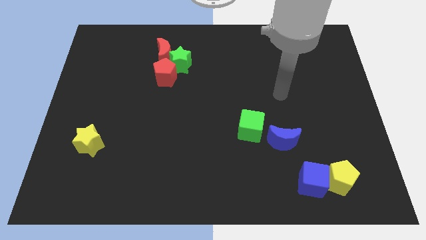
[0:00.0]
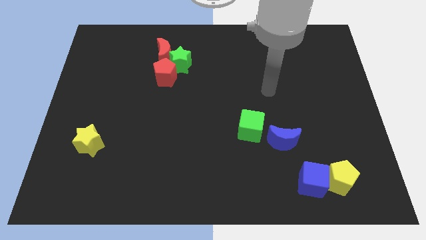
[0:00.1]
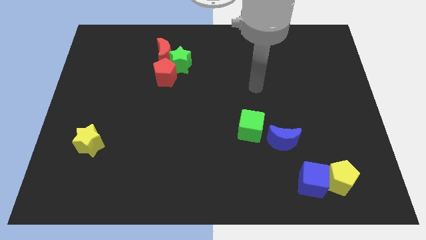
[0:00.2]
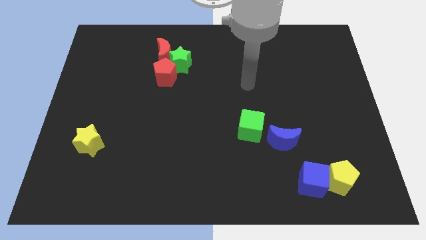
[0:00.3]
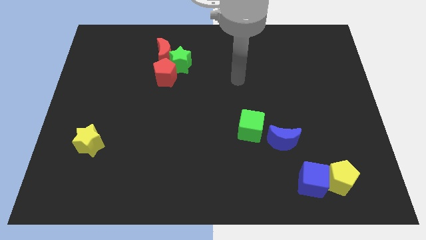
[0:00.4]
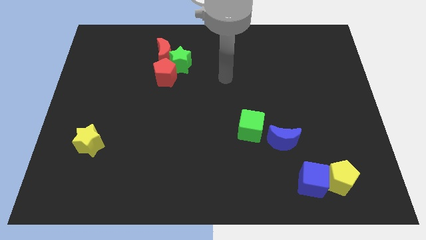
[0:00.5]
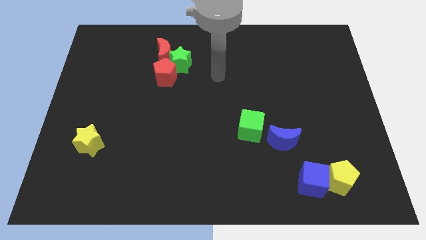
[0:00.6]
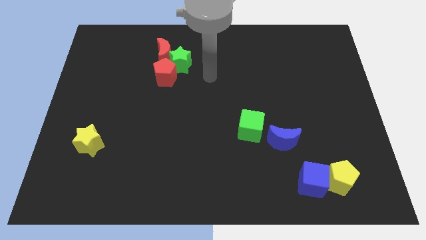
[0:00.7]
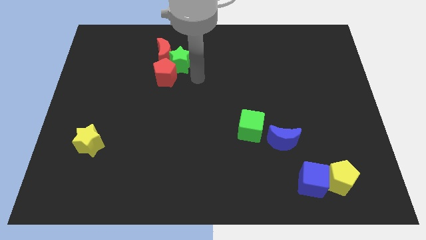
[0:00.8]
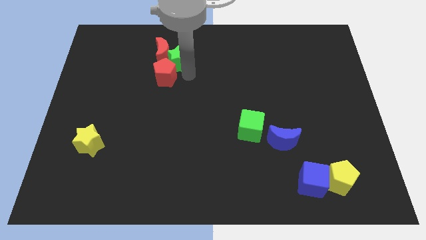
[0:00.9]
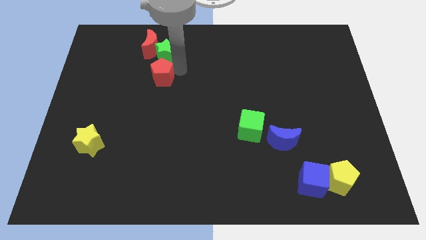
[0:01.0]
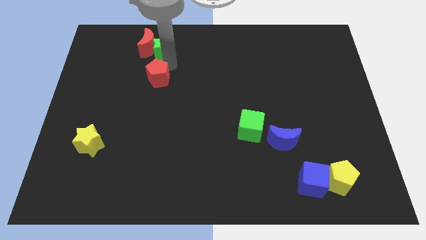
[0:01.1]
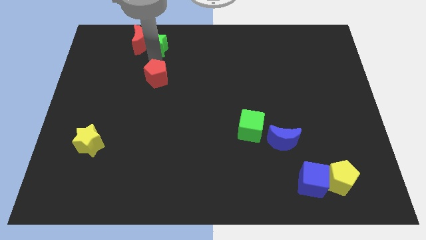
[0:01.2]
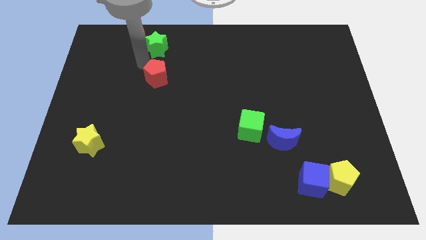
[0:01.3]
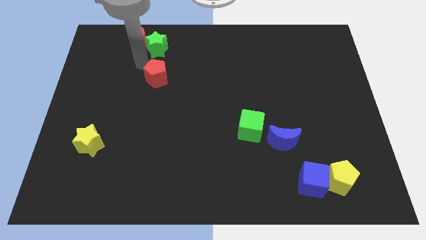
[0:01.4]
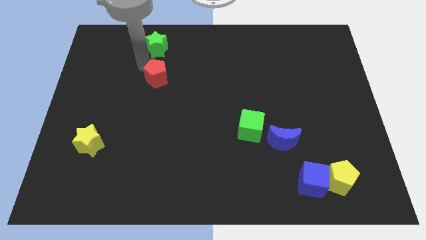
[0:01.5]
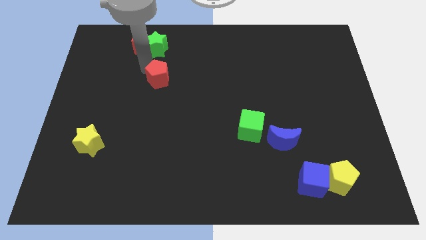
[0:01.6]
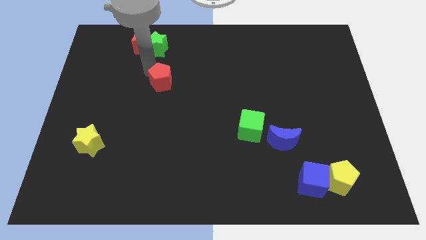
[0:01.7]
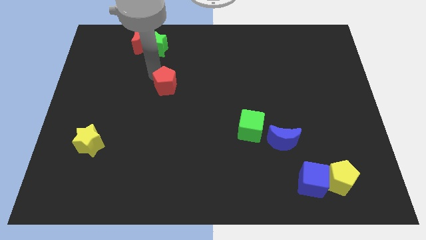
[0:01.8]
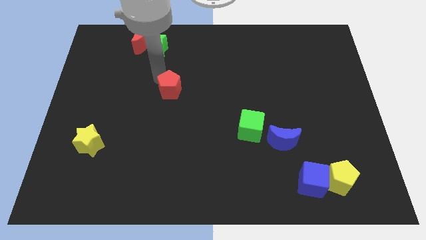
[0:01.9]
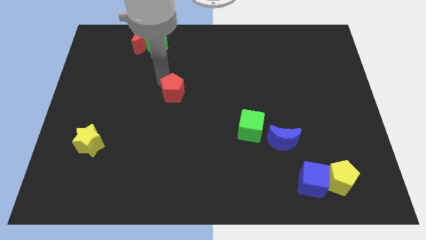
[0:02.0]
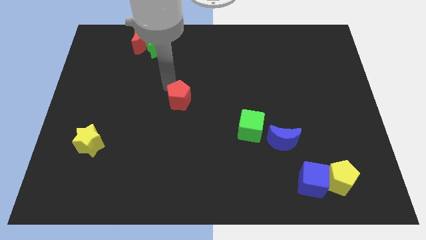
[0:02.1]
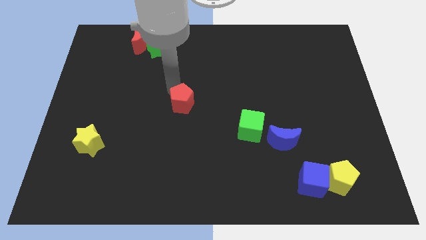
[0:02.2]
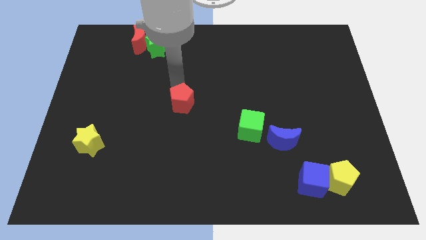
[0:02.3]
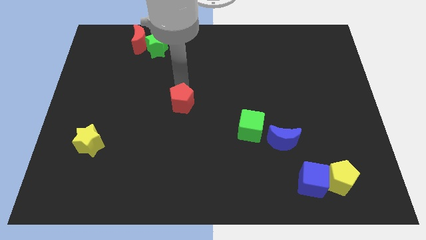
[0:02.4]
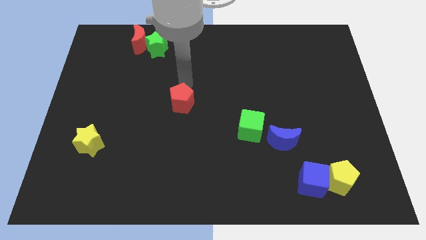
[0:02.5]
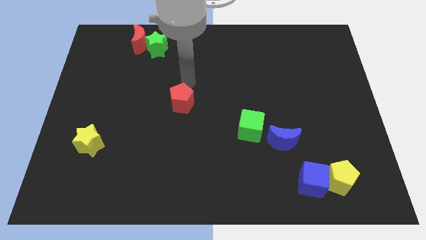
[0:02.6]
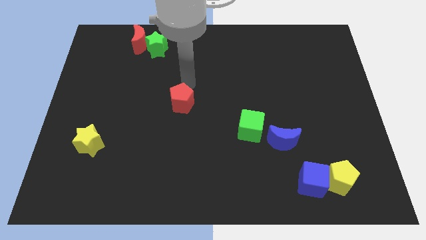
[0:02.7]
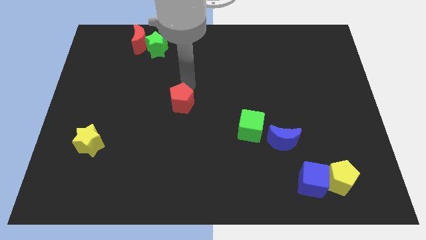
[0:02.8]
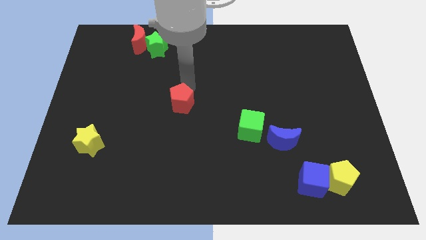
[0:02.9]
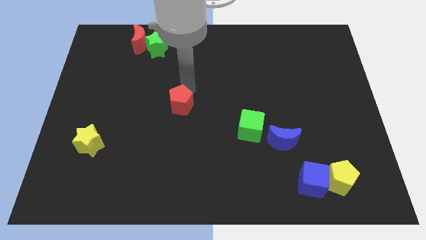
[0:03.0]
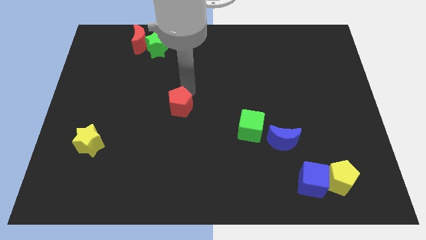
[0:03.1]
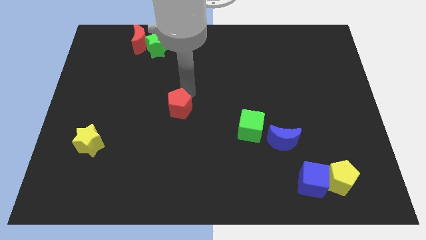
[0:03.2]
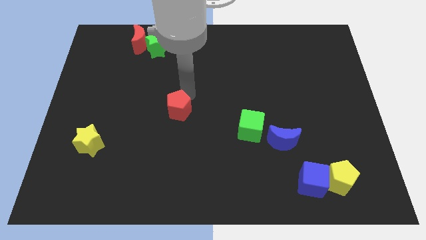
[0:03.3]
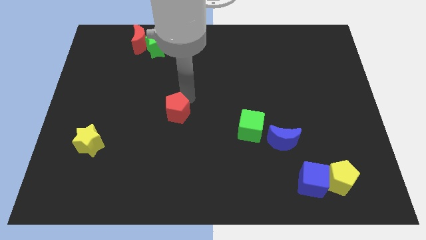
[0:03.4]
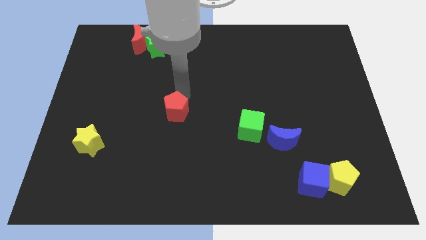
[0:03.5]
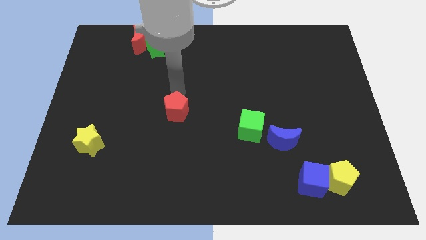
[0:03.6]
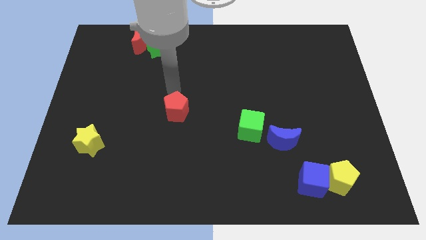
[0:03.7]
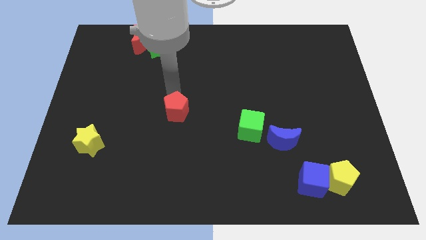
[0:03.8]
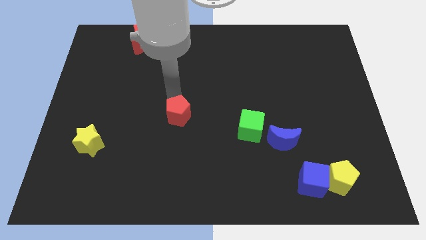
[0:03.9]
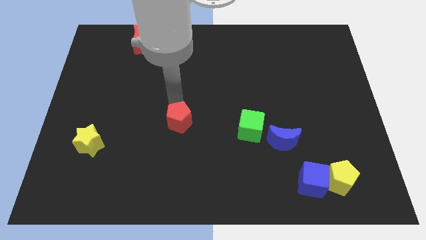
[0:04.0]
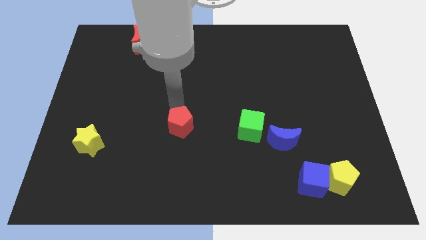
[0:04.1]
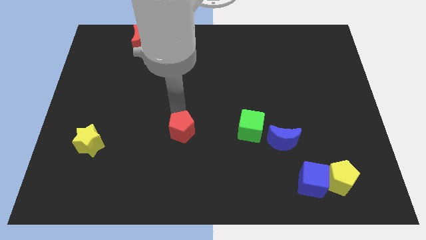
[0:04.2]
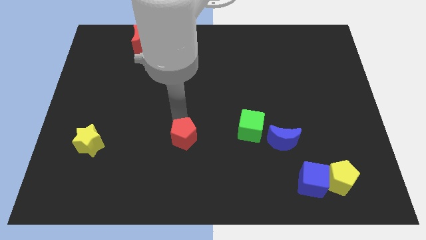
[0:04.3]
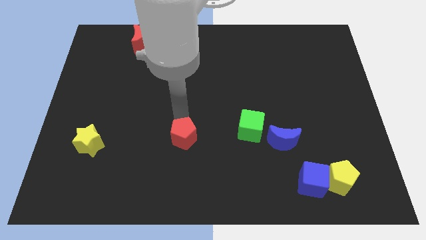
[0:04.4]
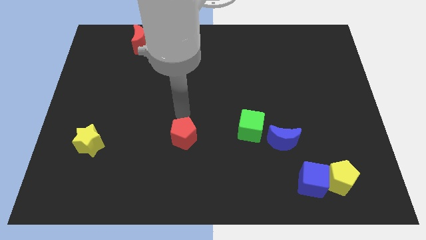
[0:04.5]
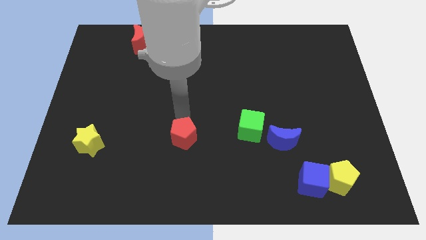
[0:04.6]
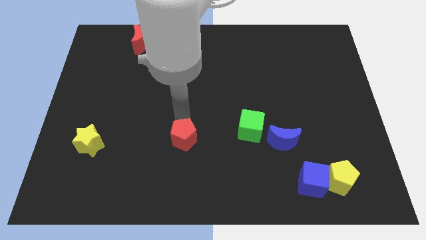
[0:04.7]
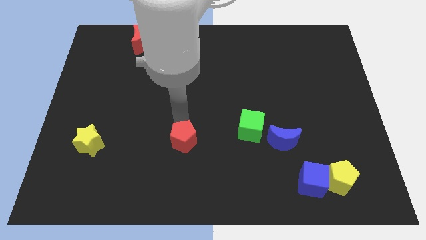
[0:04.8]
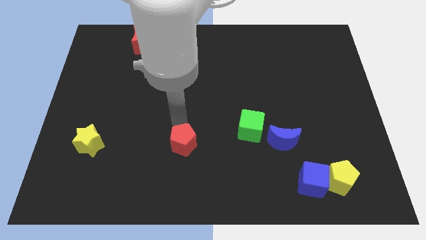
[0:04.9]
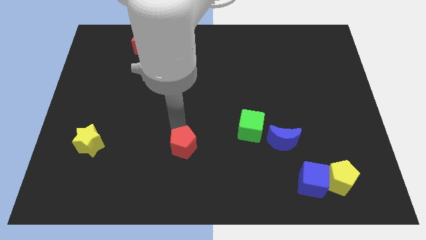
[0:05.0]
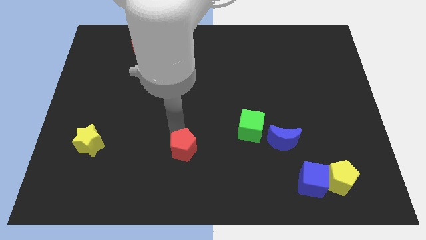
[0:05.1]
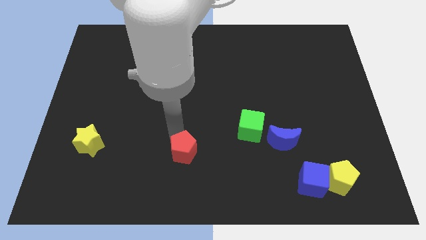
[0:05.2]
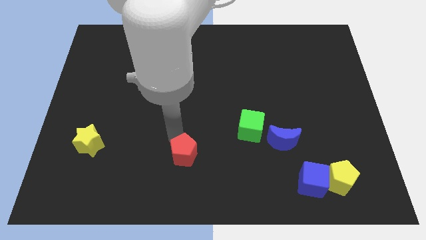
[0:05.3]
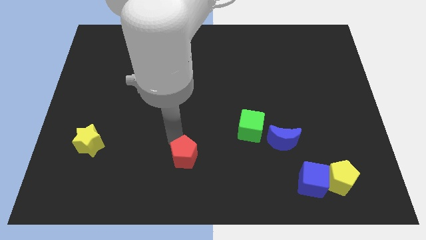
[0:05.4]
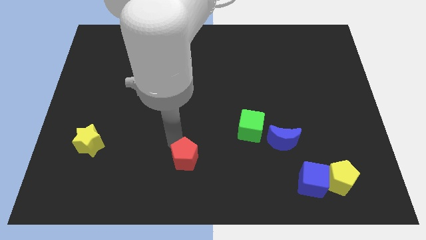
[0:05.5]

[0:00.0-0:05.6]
push the red pentagon to the bottom

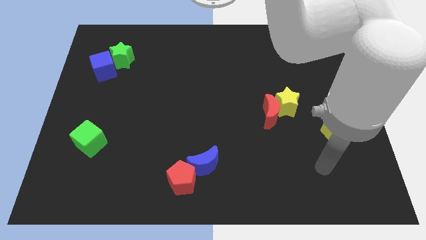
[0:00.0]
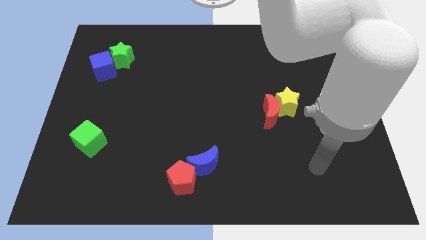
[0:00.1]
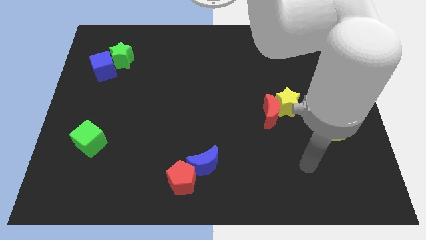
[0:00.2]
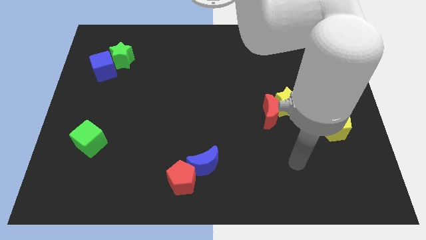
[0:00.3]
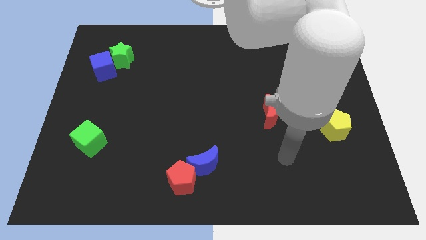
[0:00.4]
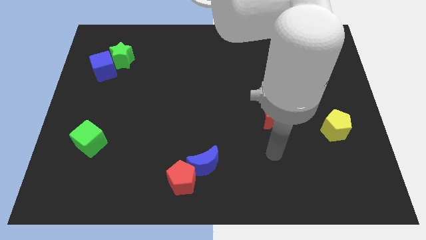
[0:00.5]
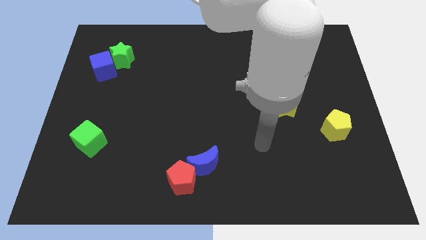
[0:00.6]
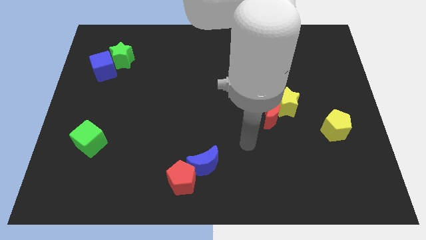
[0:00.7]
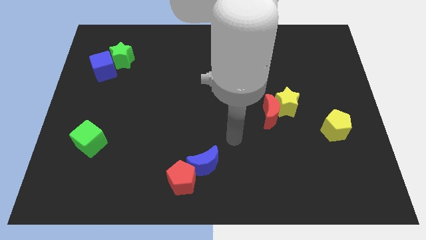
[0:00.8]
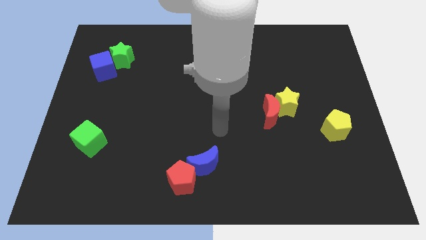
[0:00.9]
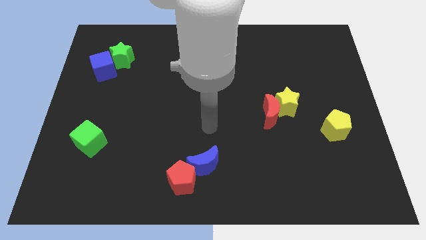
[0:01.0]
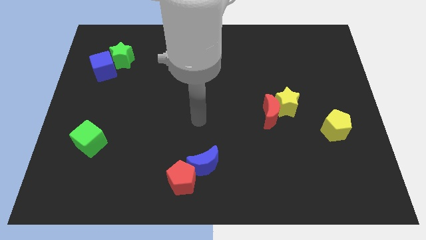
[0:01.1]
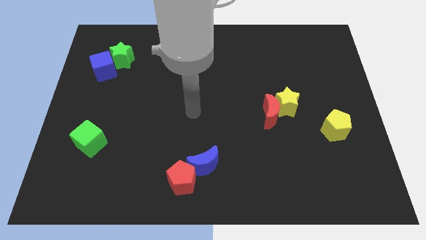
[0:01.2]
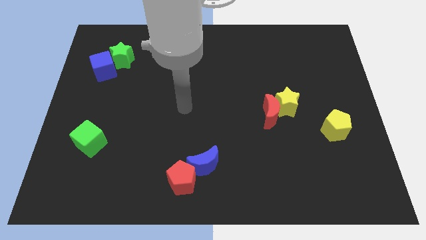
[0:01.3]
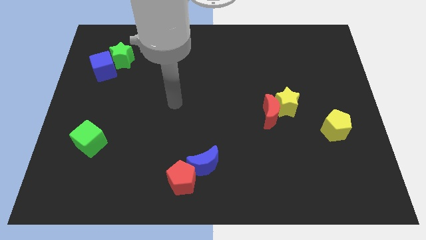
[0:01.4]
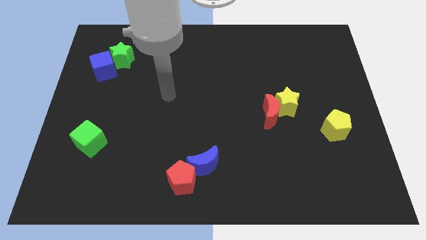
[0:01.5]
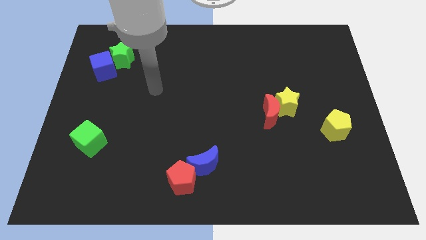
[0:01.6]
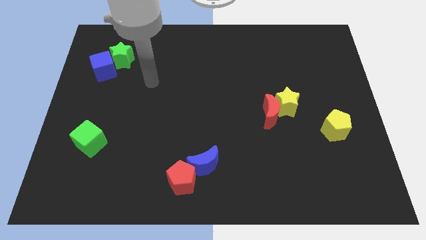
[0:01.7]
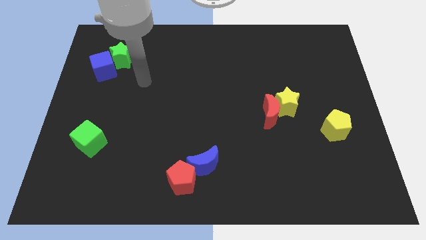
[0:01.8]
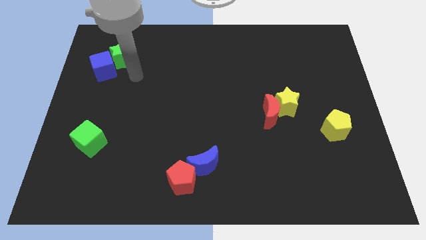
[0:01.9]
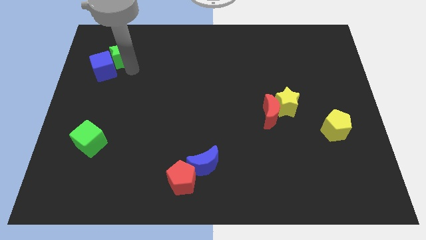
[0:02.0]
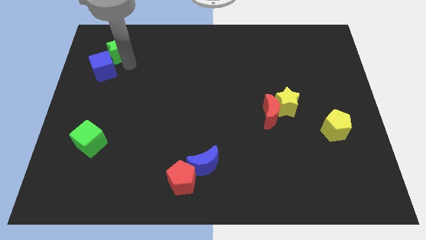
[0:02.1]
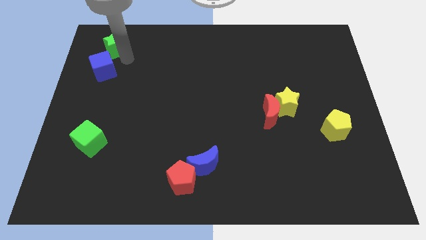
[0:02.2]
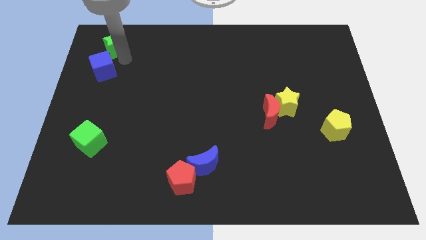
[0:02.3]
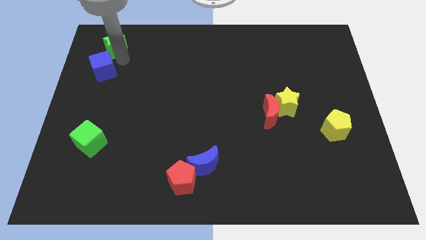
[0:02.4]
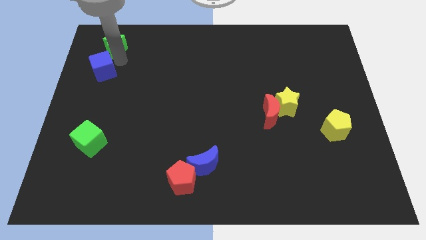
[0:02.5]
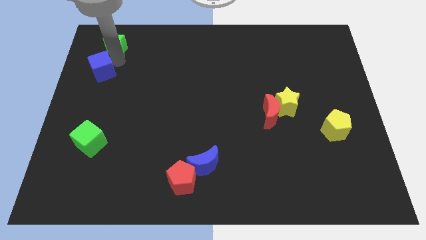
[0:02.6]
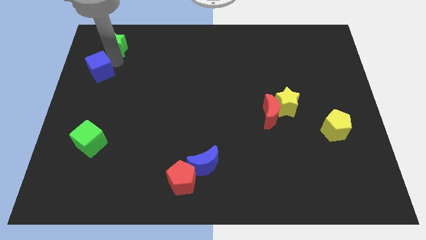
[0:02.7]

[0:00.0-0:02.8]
push the blue cube to the center left
